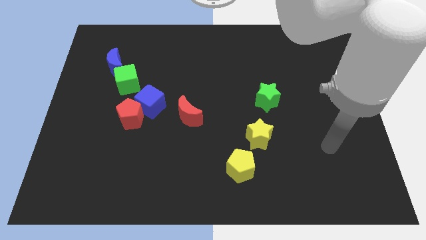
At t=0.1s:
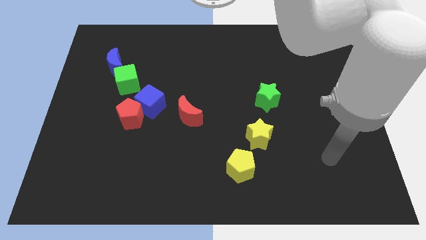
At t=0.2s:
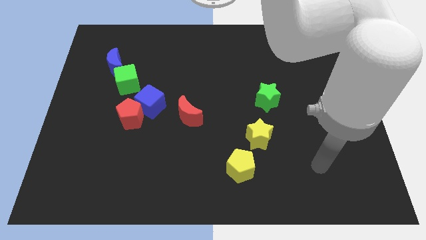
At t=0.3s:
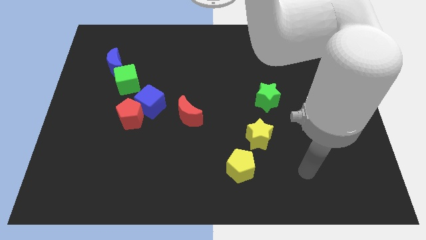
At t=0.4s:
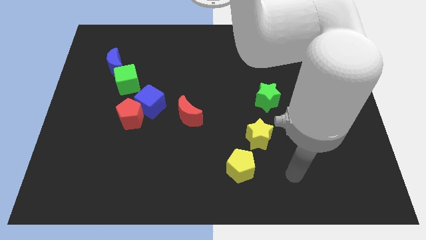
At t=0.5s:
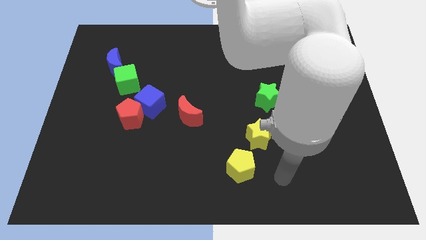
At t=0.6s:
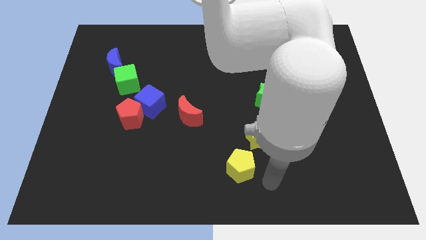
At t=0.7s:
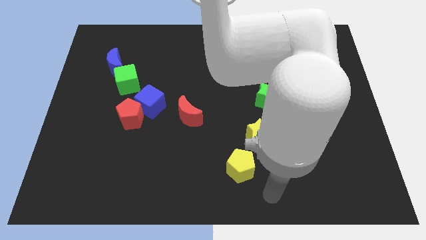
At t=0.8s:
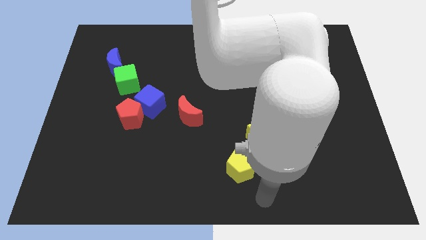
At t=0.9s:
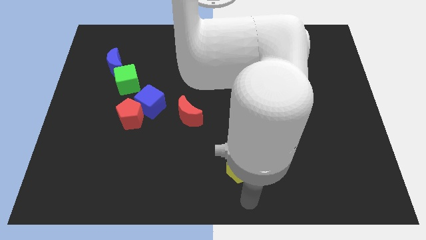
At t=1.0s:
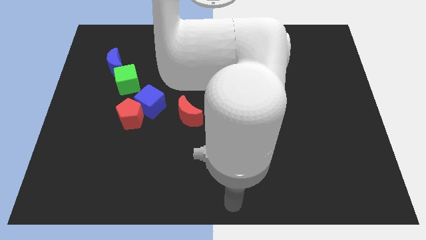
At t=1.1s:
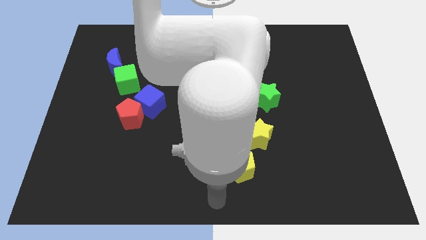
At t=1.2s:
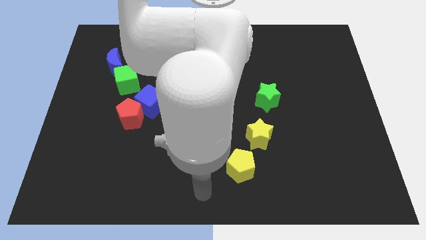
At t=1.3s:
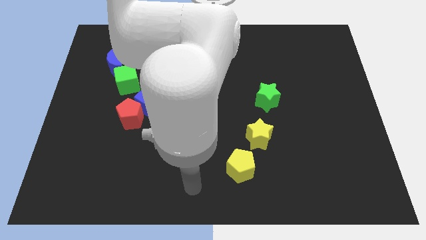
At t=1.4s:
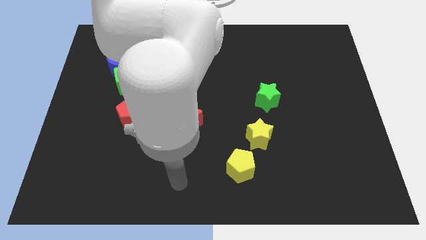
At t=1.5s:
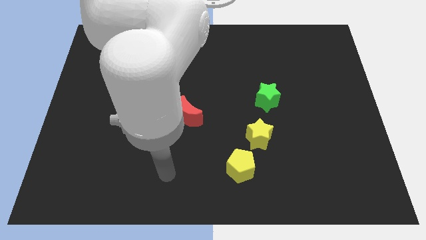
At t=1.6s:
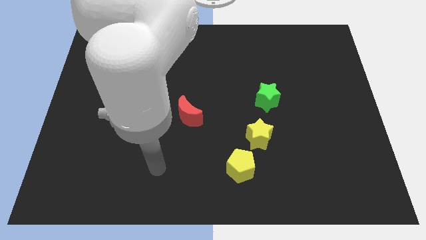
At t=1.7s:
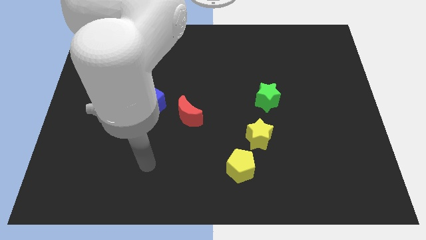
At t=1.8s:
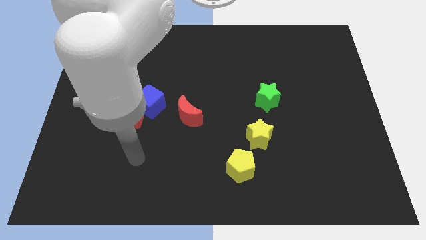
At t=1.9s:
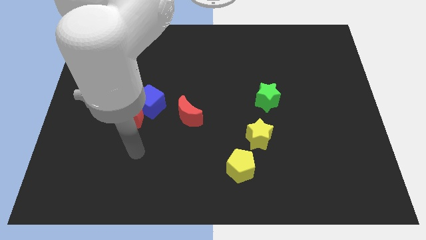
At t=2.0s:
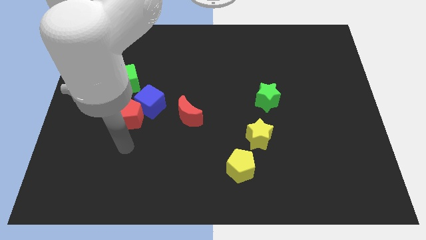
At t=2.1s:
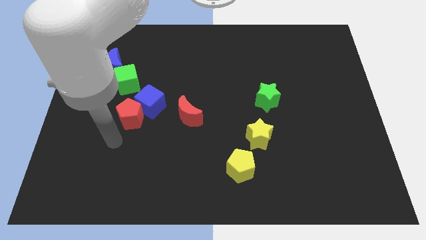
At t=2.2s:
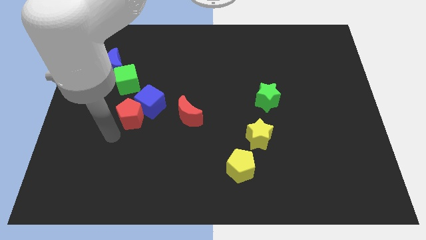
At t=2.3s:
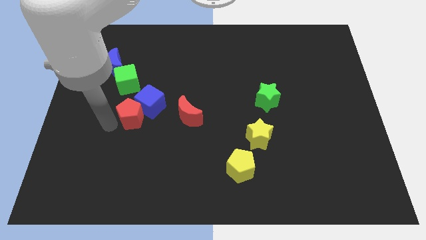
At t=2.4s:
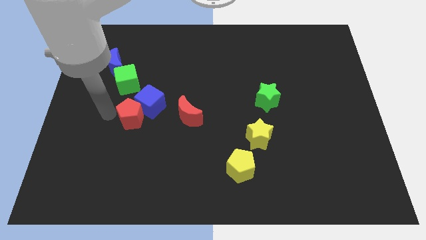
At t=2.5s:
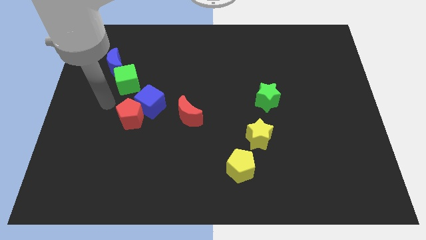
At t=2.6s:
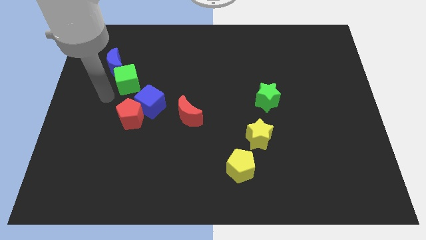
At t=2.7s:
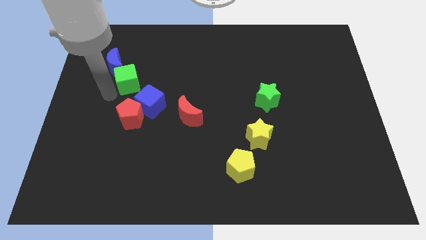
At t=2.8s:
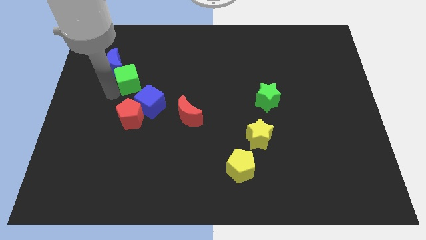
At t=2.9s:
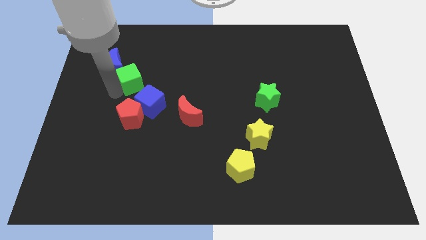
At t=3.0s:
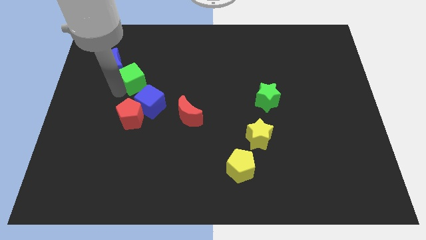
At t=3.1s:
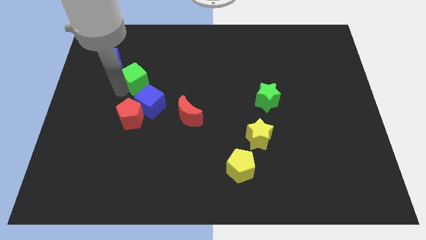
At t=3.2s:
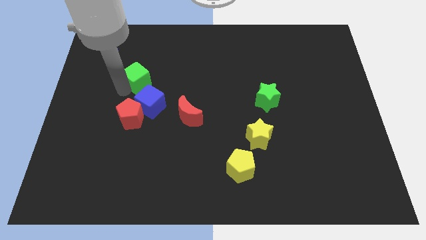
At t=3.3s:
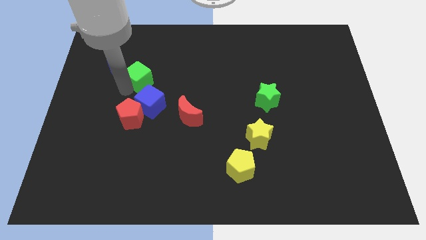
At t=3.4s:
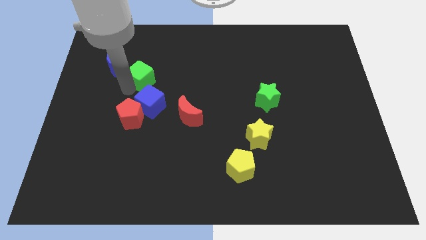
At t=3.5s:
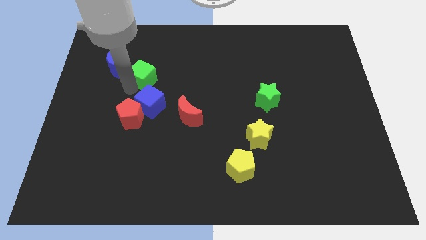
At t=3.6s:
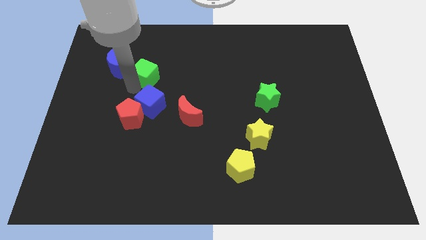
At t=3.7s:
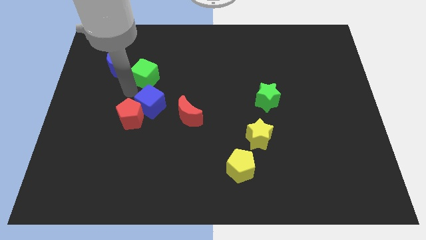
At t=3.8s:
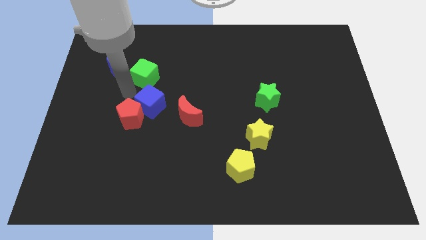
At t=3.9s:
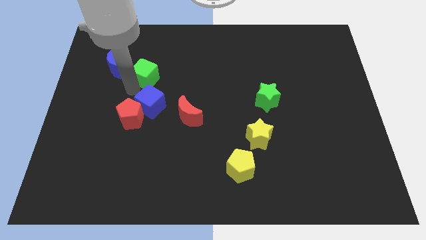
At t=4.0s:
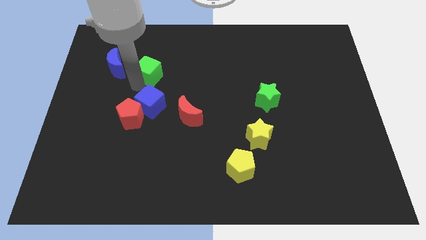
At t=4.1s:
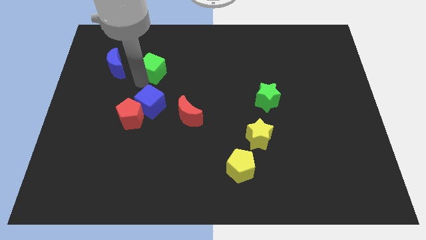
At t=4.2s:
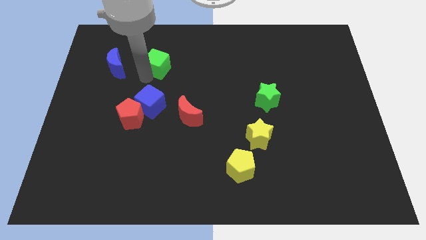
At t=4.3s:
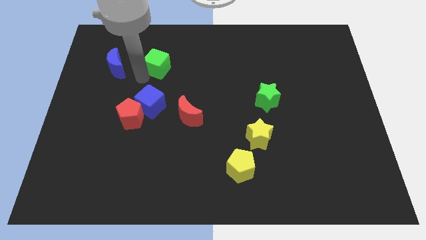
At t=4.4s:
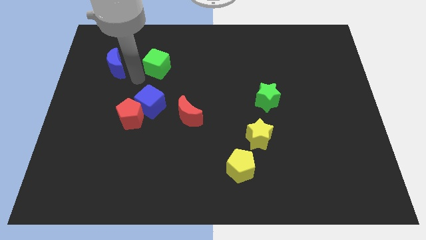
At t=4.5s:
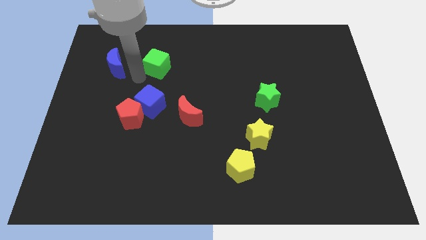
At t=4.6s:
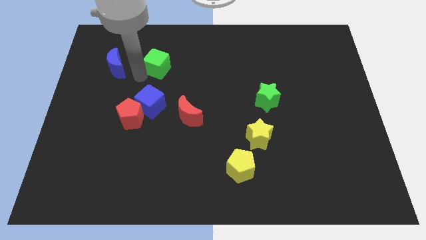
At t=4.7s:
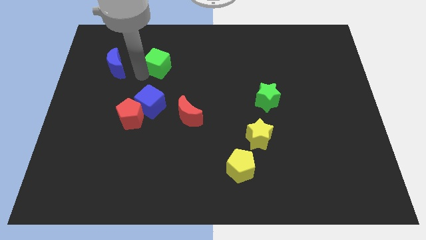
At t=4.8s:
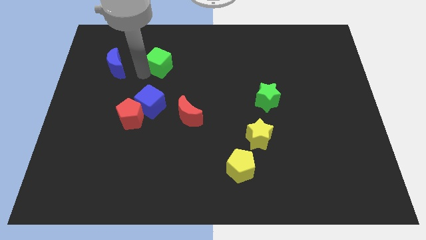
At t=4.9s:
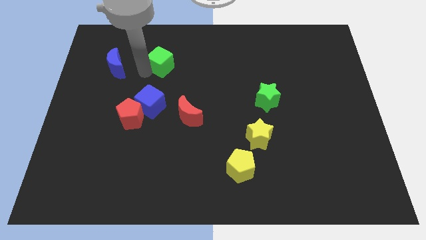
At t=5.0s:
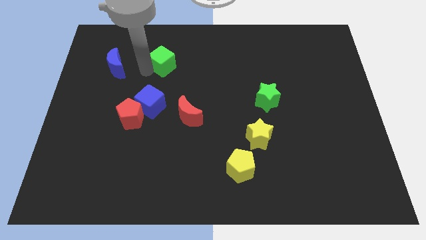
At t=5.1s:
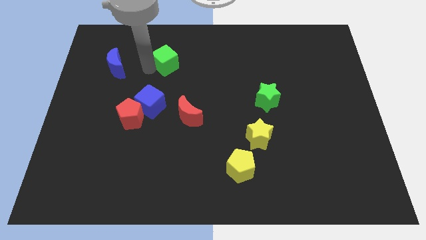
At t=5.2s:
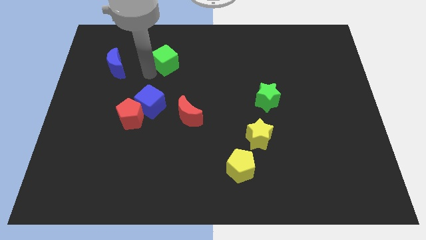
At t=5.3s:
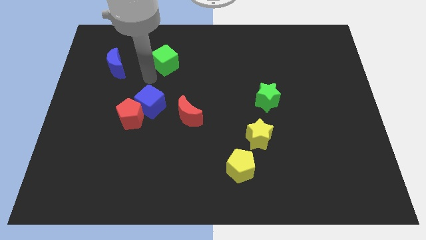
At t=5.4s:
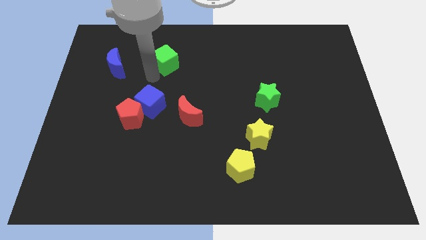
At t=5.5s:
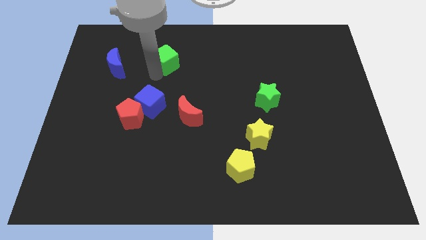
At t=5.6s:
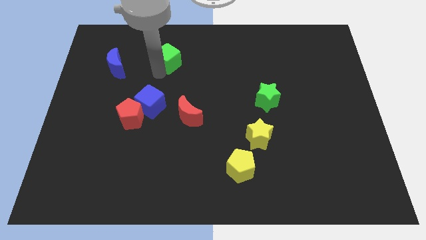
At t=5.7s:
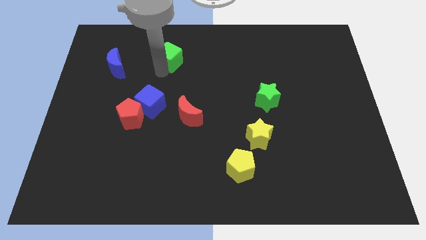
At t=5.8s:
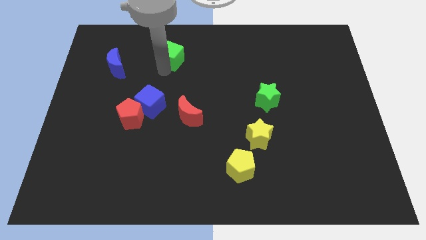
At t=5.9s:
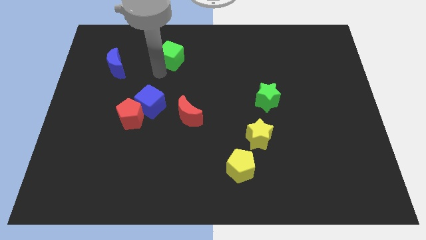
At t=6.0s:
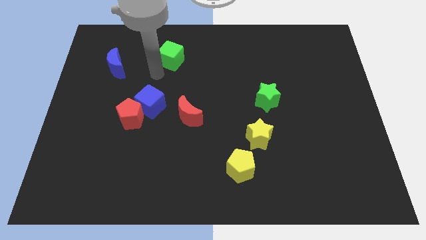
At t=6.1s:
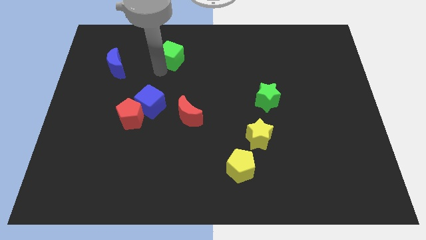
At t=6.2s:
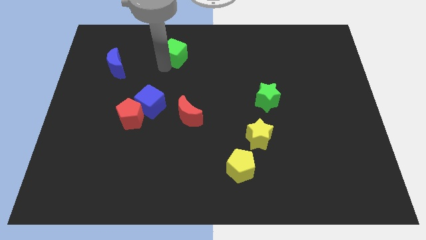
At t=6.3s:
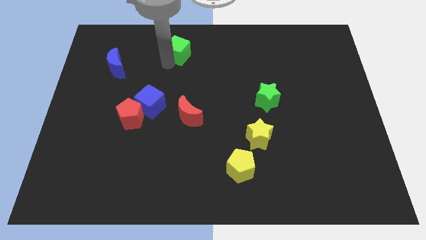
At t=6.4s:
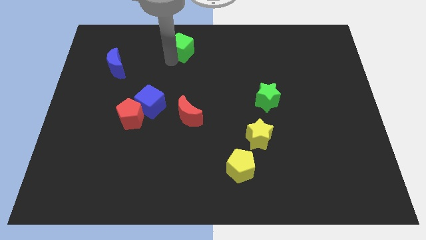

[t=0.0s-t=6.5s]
move the green cube to the top
